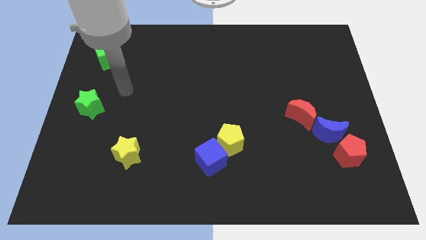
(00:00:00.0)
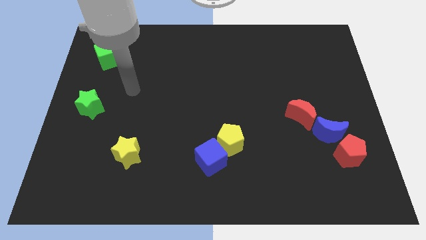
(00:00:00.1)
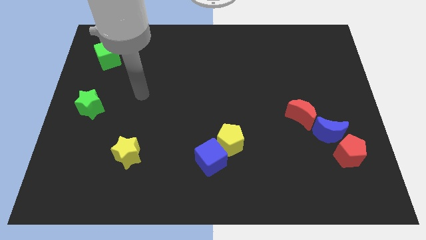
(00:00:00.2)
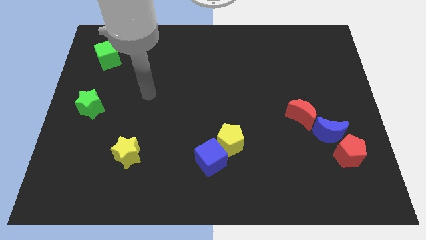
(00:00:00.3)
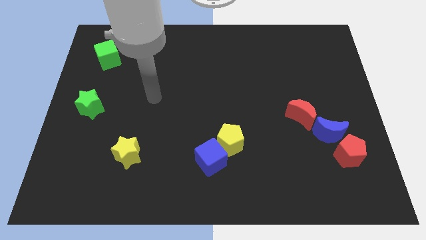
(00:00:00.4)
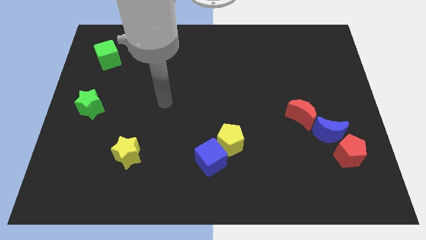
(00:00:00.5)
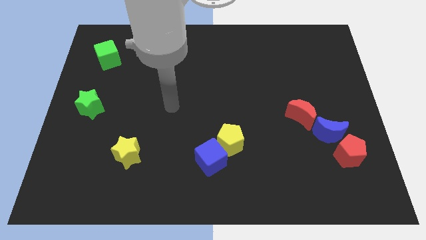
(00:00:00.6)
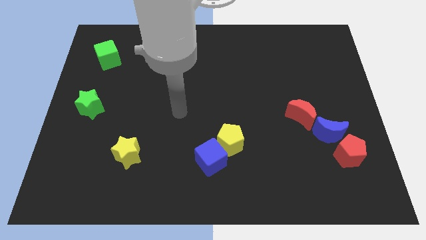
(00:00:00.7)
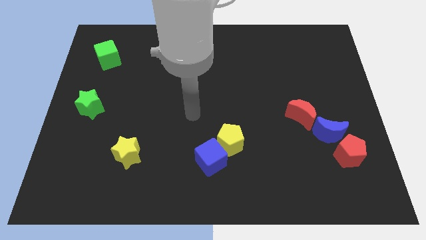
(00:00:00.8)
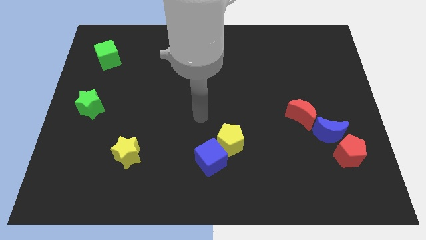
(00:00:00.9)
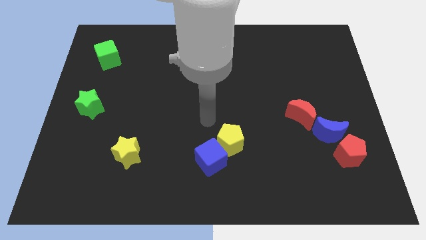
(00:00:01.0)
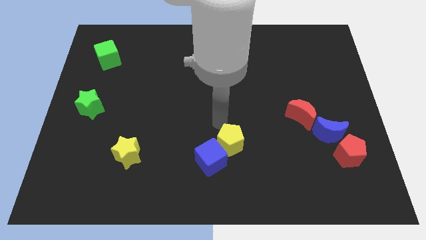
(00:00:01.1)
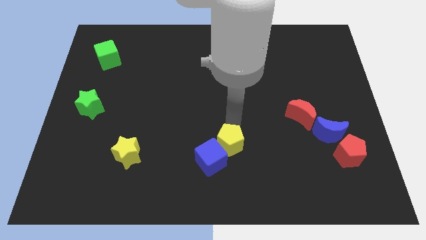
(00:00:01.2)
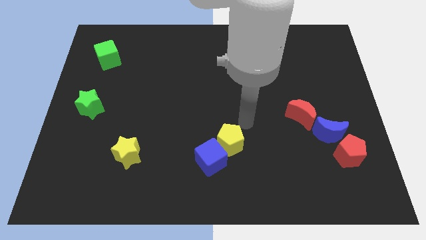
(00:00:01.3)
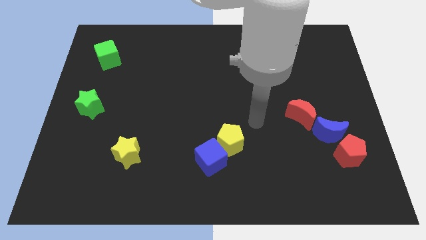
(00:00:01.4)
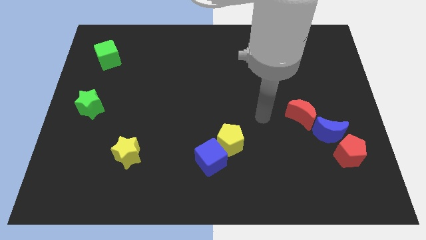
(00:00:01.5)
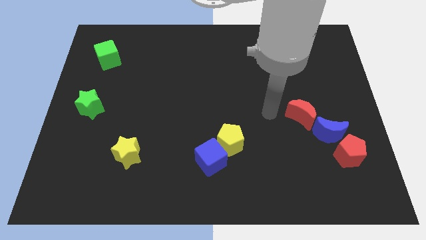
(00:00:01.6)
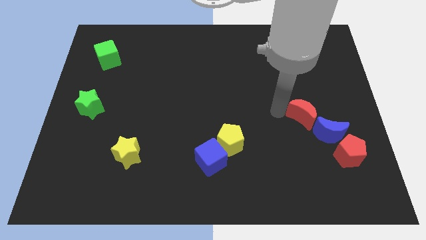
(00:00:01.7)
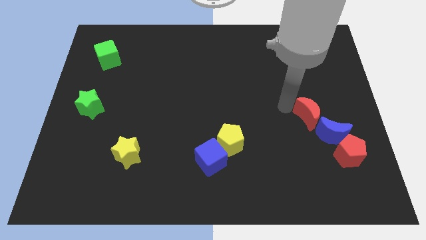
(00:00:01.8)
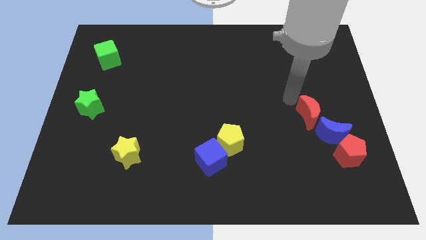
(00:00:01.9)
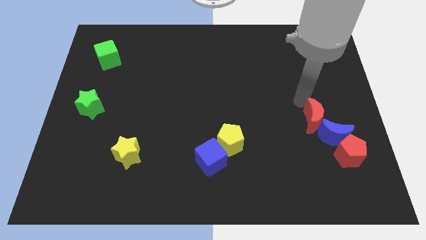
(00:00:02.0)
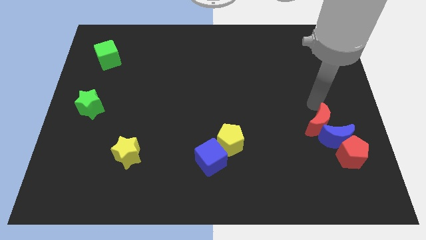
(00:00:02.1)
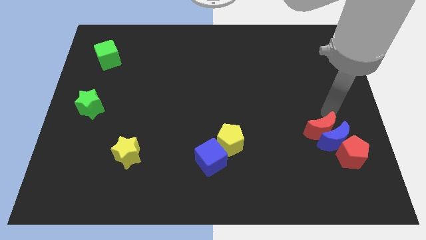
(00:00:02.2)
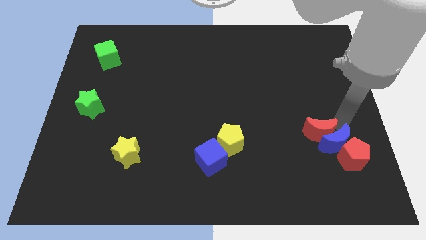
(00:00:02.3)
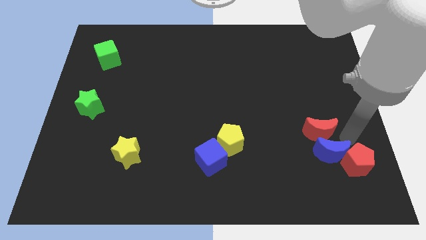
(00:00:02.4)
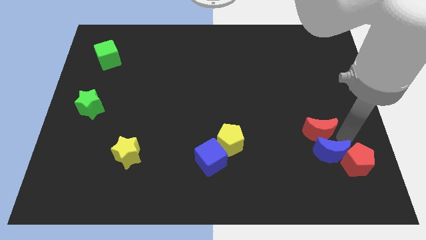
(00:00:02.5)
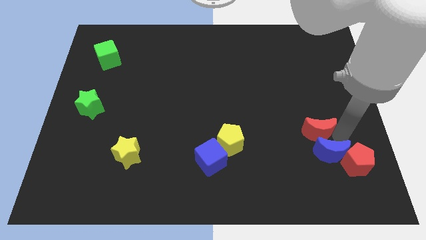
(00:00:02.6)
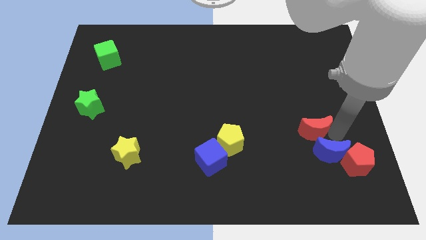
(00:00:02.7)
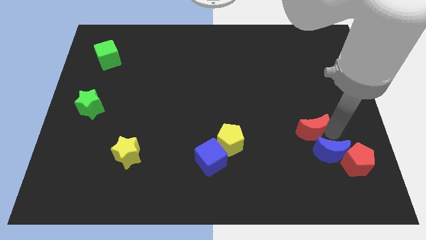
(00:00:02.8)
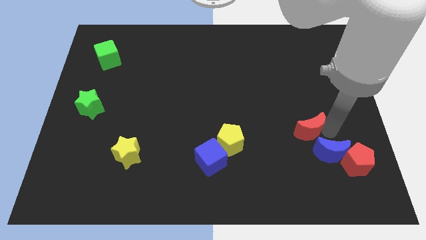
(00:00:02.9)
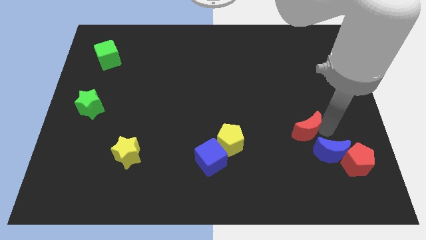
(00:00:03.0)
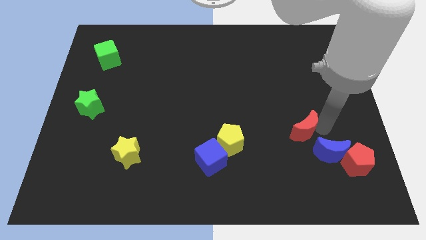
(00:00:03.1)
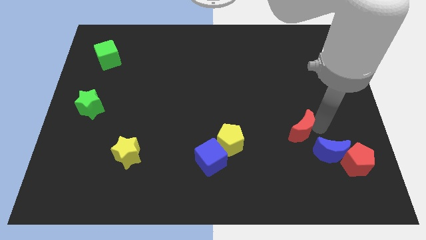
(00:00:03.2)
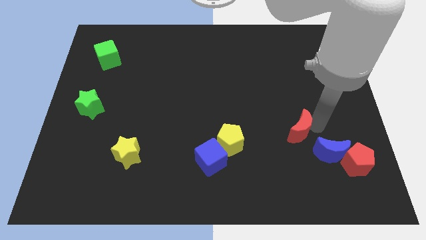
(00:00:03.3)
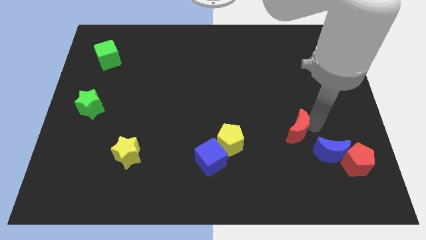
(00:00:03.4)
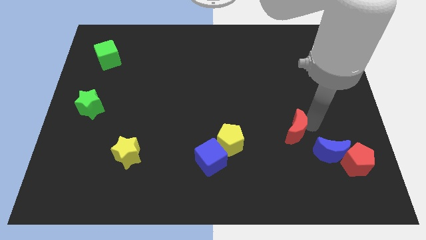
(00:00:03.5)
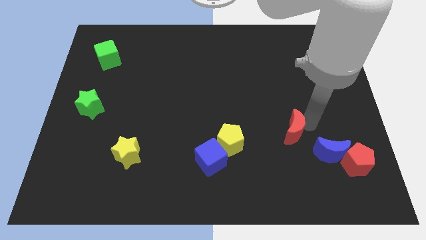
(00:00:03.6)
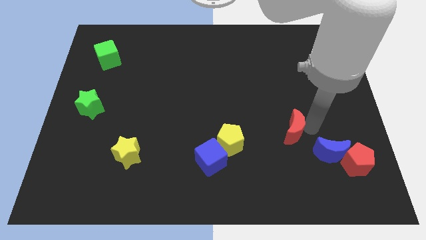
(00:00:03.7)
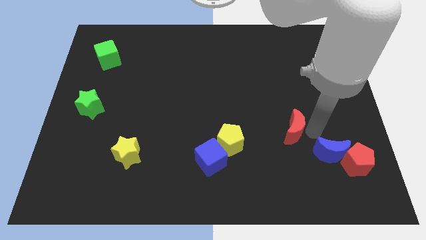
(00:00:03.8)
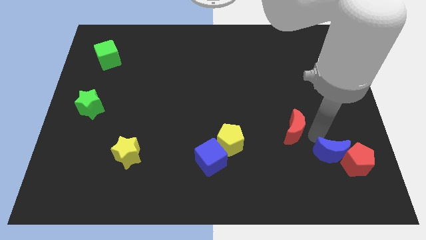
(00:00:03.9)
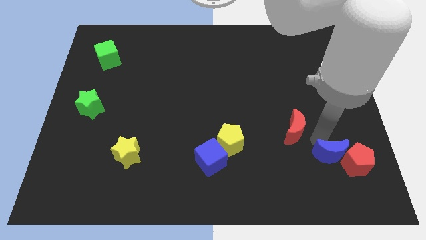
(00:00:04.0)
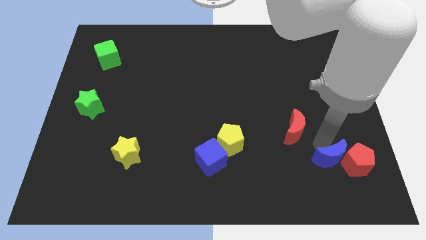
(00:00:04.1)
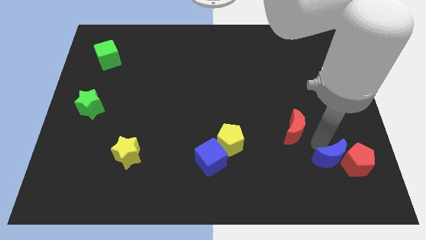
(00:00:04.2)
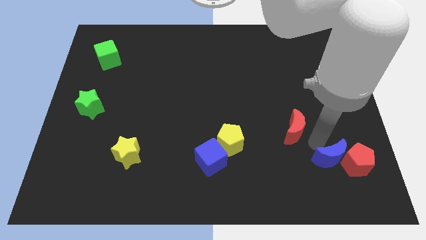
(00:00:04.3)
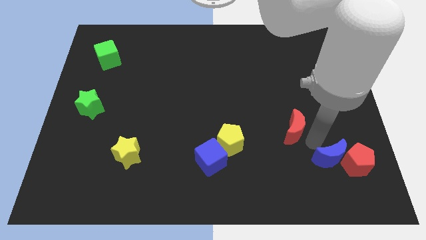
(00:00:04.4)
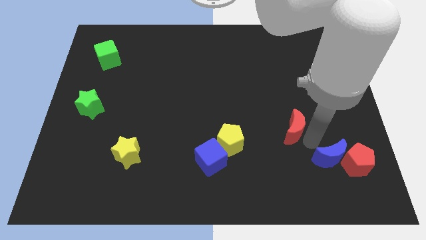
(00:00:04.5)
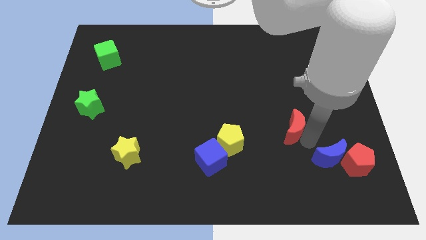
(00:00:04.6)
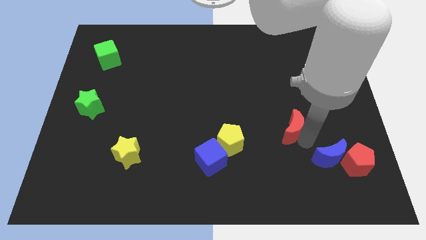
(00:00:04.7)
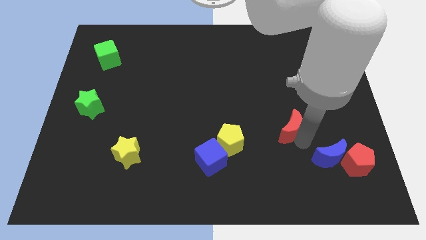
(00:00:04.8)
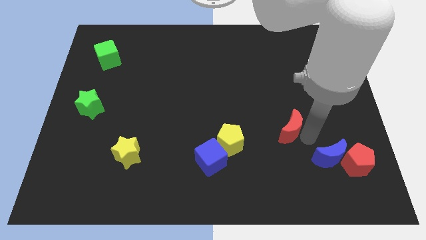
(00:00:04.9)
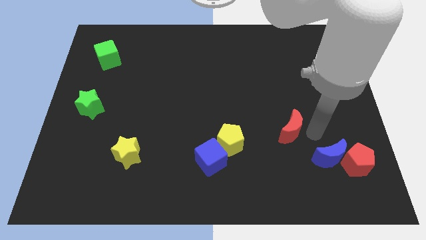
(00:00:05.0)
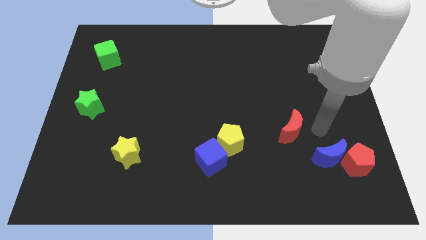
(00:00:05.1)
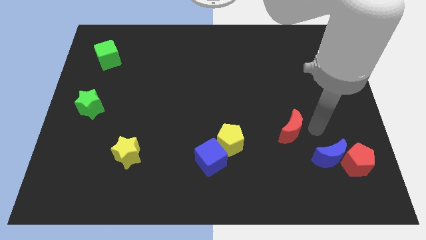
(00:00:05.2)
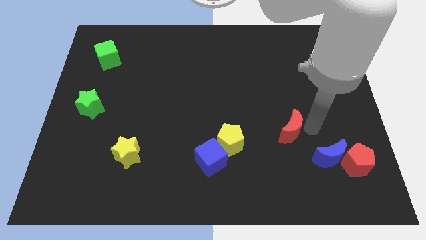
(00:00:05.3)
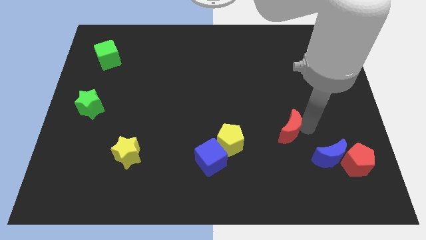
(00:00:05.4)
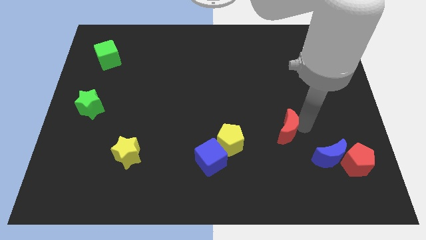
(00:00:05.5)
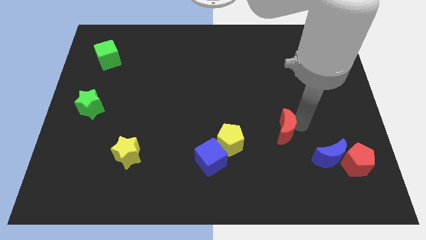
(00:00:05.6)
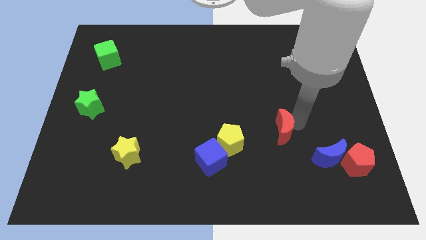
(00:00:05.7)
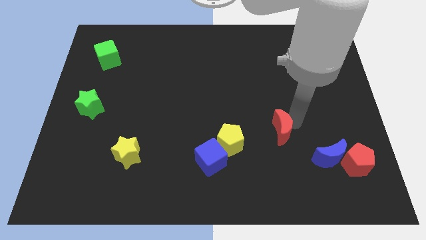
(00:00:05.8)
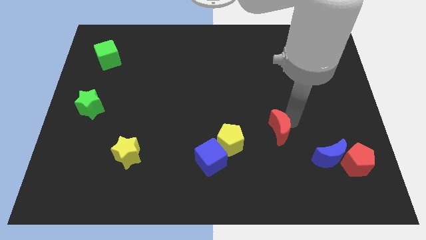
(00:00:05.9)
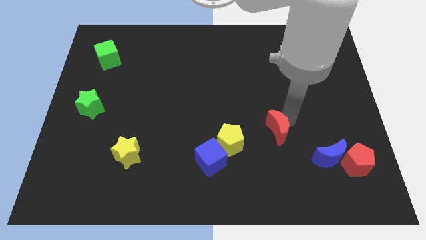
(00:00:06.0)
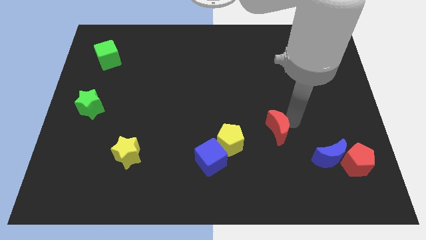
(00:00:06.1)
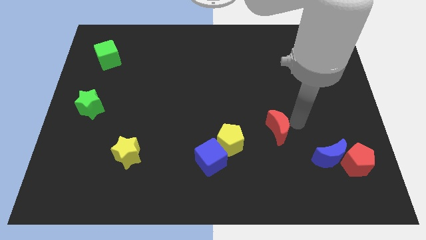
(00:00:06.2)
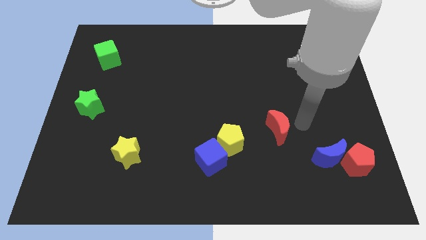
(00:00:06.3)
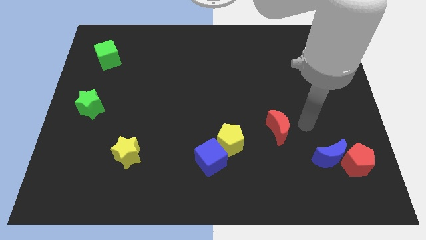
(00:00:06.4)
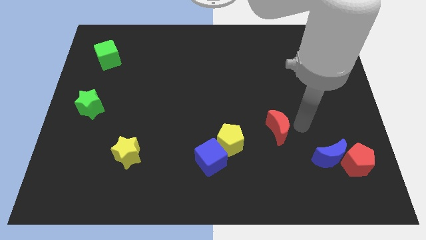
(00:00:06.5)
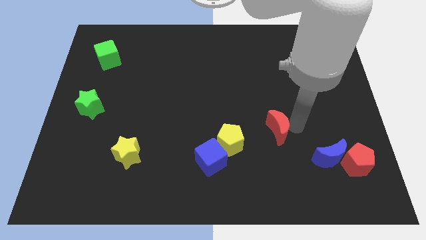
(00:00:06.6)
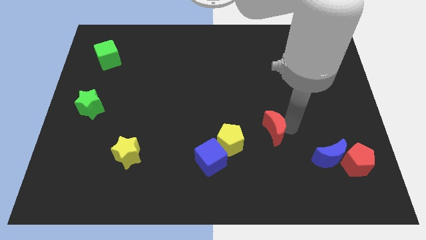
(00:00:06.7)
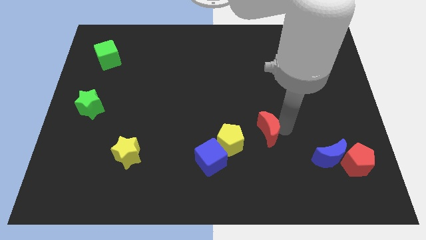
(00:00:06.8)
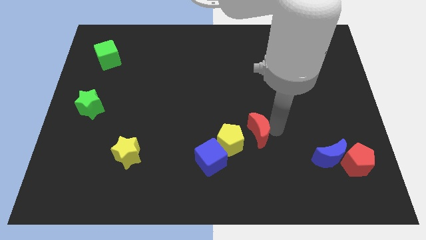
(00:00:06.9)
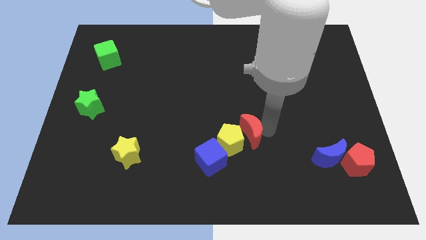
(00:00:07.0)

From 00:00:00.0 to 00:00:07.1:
push the red moon to the yellow pentagon
